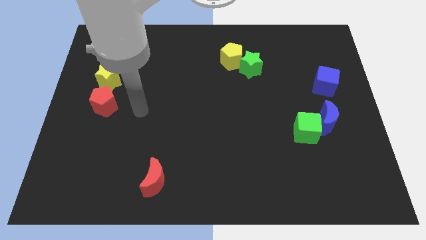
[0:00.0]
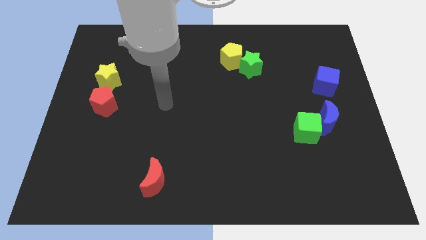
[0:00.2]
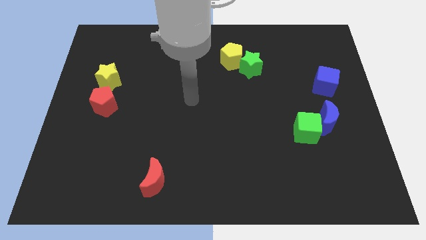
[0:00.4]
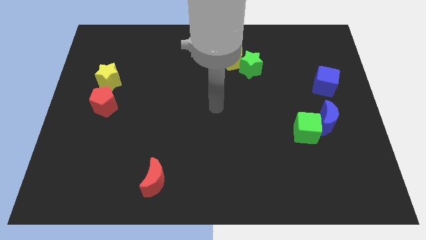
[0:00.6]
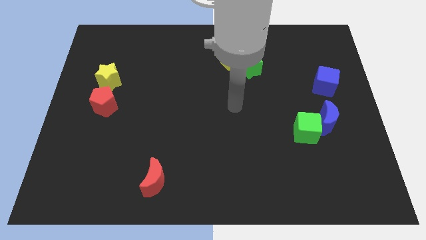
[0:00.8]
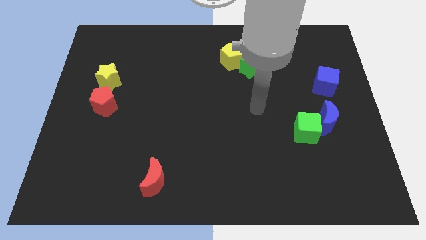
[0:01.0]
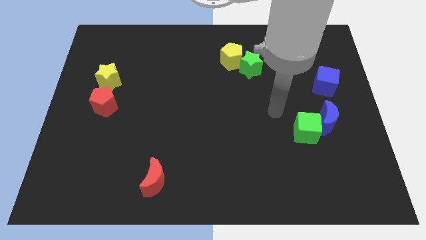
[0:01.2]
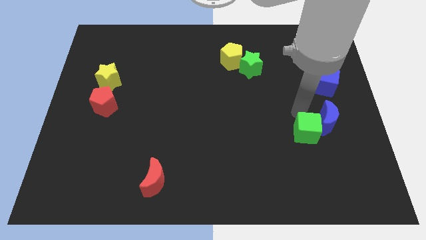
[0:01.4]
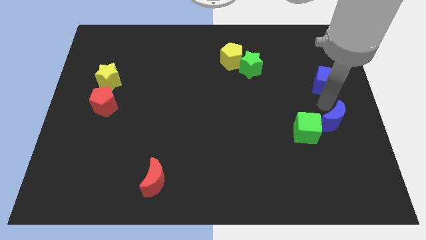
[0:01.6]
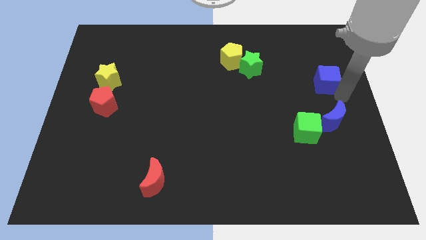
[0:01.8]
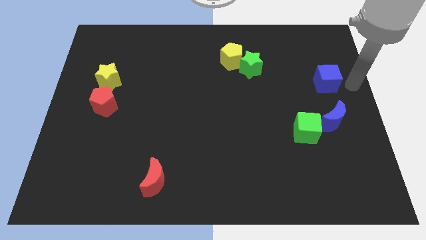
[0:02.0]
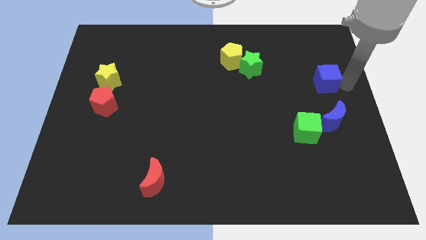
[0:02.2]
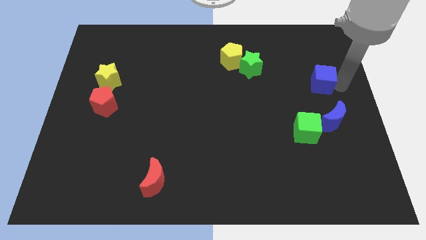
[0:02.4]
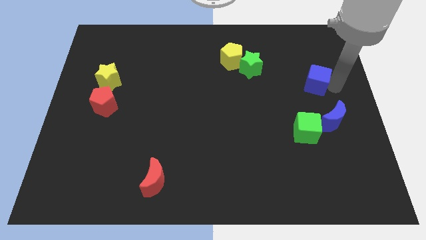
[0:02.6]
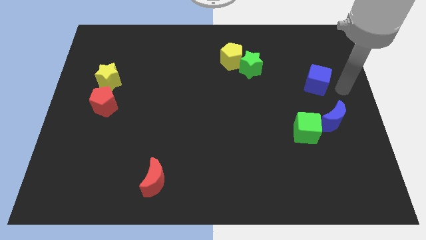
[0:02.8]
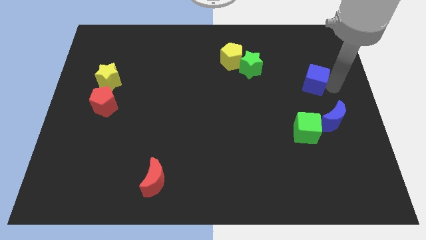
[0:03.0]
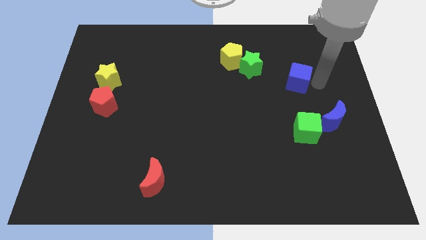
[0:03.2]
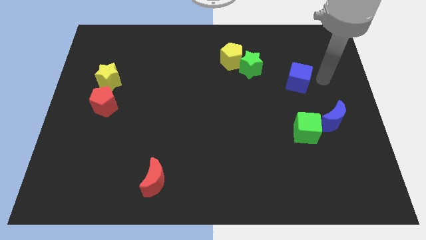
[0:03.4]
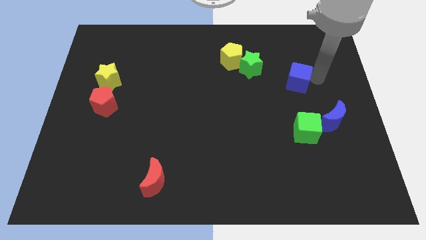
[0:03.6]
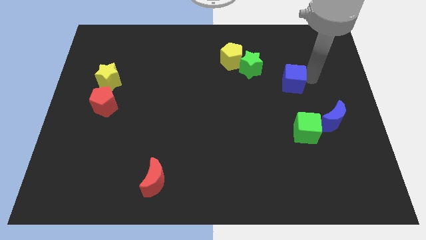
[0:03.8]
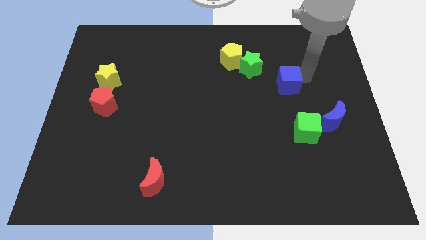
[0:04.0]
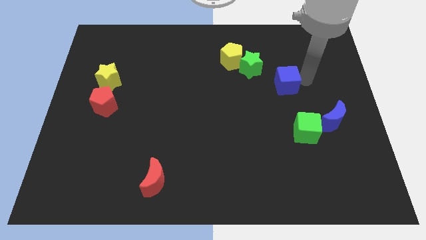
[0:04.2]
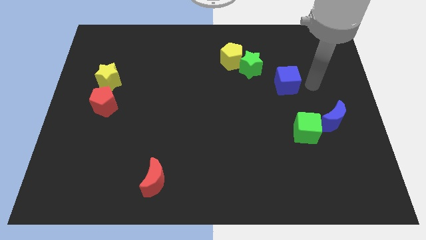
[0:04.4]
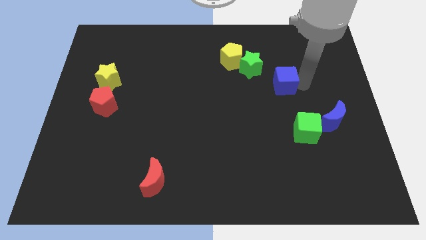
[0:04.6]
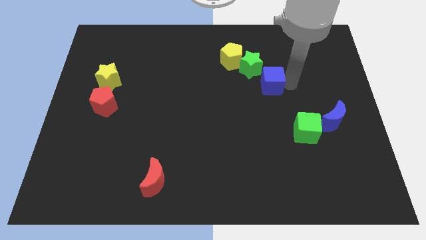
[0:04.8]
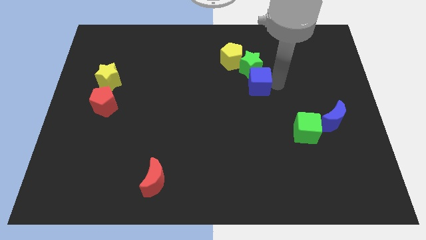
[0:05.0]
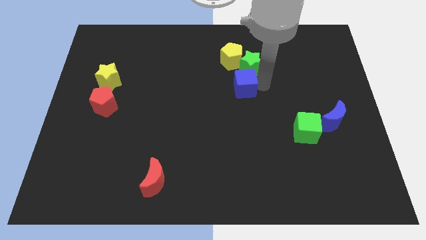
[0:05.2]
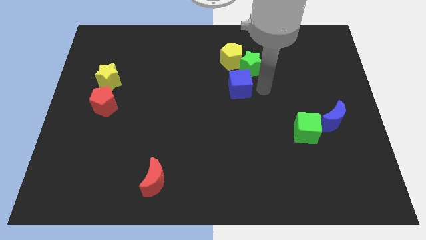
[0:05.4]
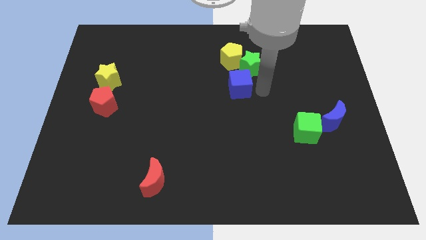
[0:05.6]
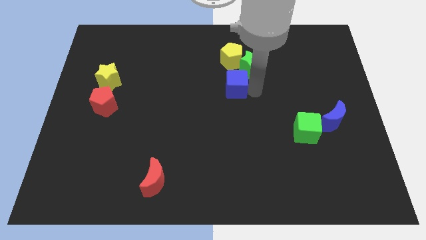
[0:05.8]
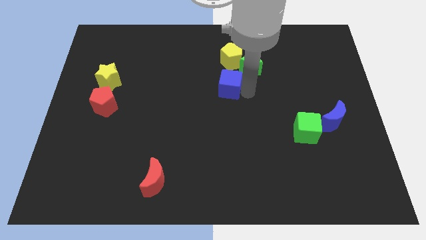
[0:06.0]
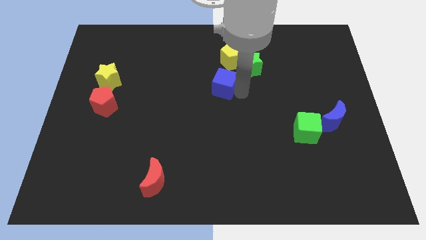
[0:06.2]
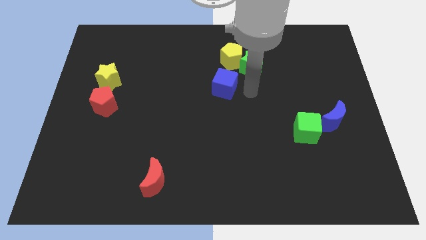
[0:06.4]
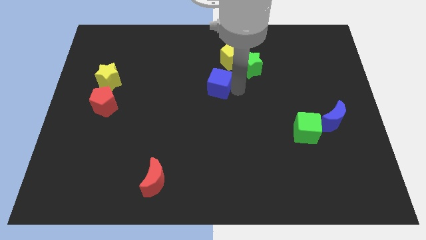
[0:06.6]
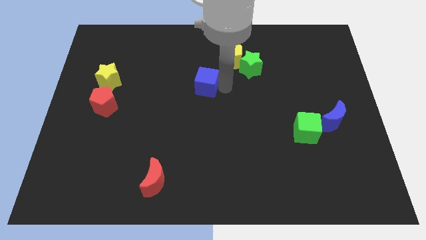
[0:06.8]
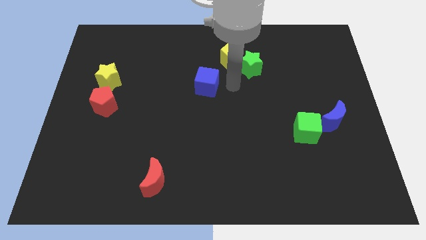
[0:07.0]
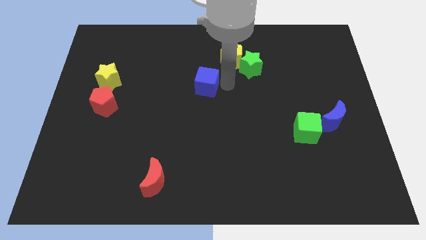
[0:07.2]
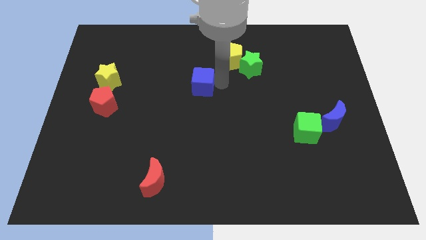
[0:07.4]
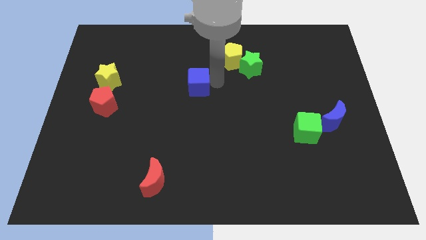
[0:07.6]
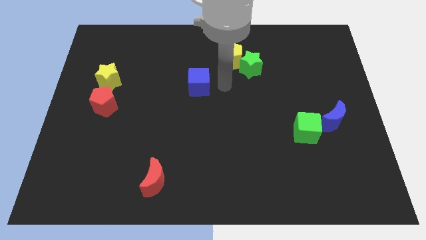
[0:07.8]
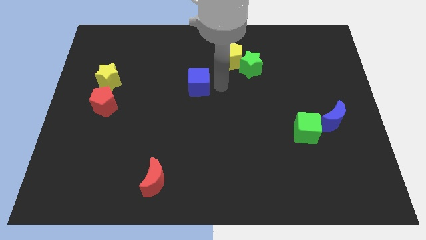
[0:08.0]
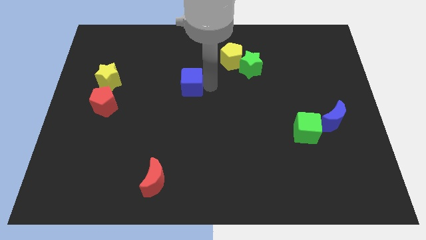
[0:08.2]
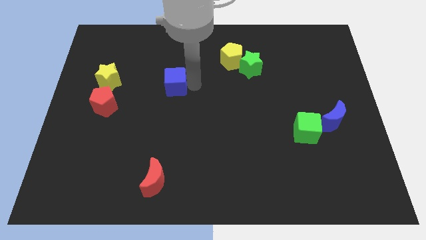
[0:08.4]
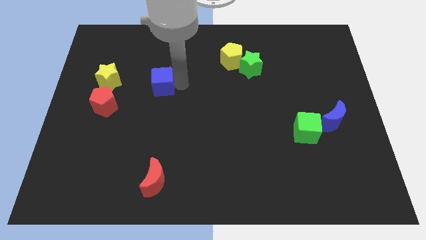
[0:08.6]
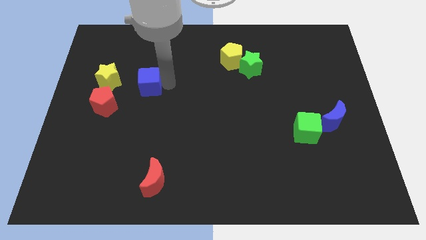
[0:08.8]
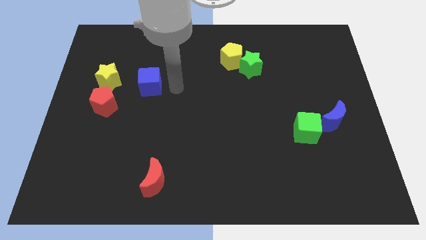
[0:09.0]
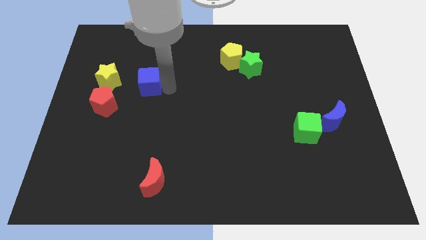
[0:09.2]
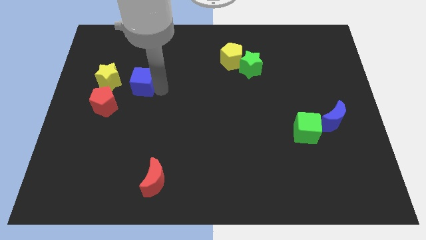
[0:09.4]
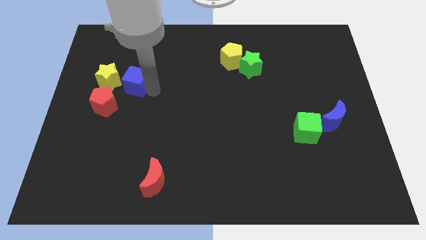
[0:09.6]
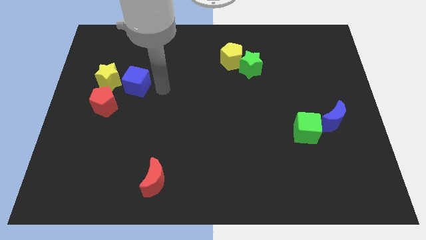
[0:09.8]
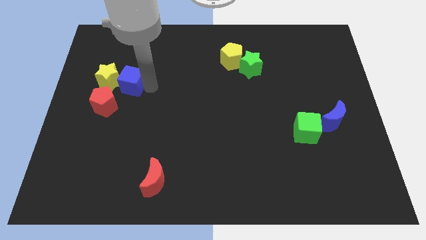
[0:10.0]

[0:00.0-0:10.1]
slide the blue cube towards the yellow star

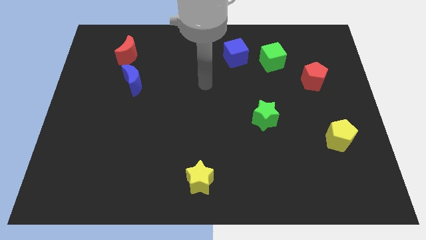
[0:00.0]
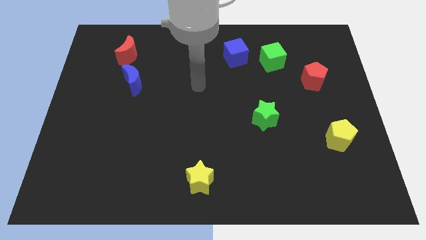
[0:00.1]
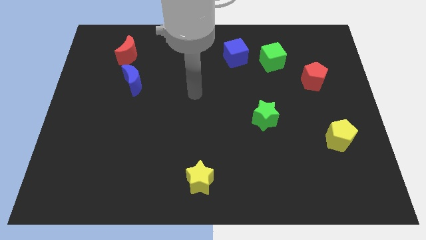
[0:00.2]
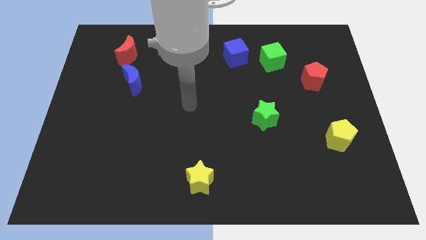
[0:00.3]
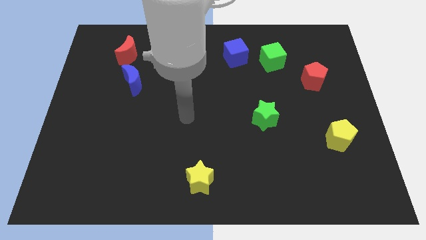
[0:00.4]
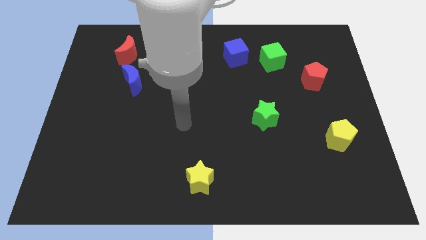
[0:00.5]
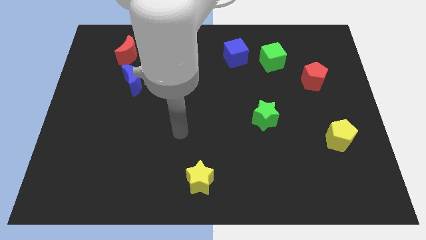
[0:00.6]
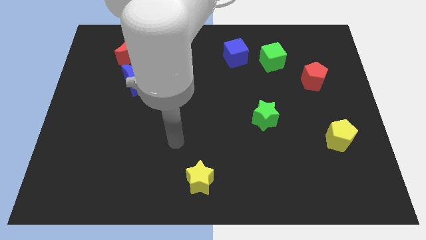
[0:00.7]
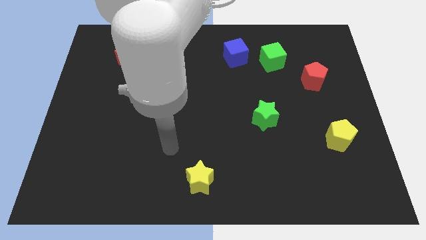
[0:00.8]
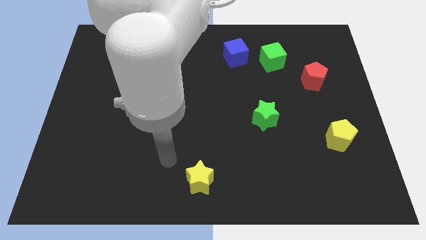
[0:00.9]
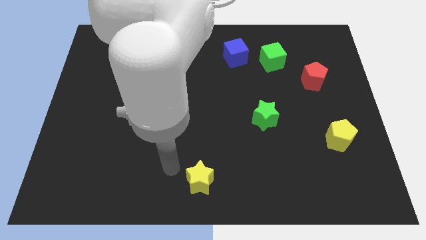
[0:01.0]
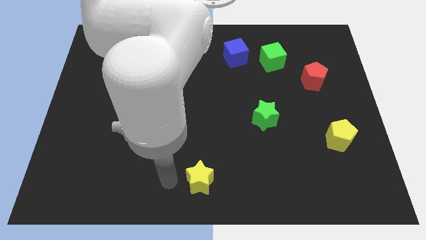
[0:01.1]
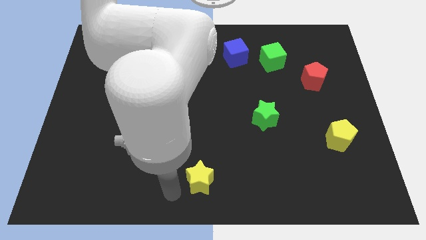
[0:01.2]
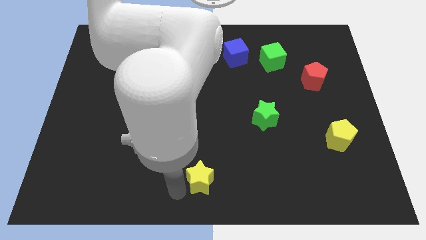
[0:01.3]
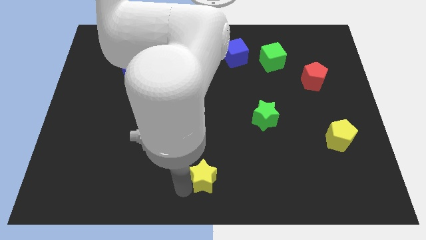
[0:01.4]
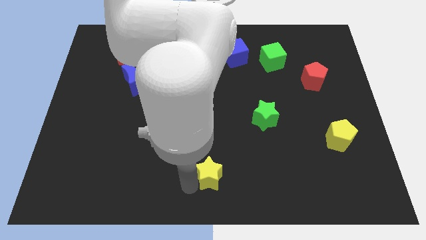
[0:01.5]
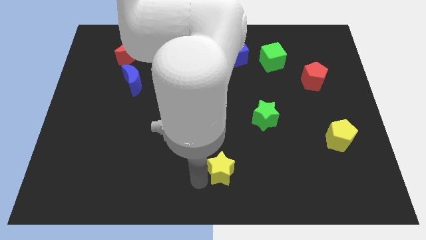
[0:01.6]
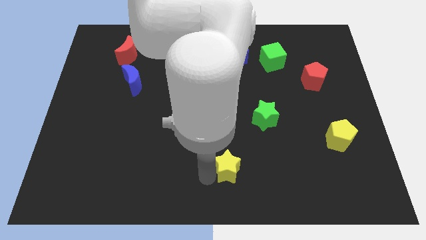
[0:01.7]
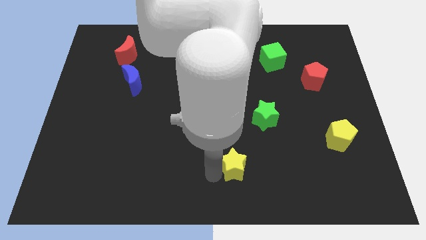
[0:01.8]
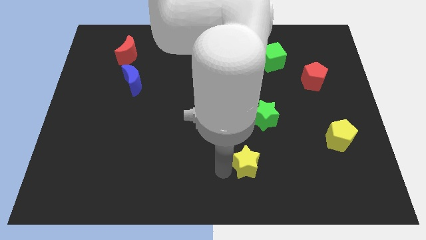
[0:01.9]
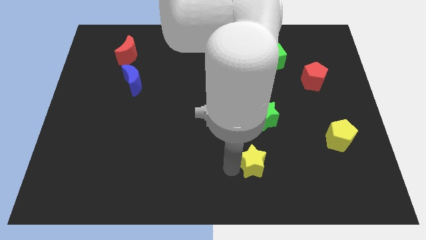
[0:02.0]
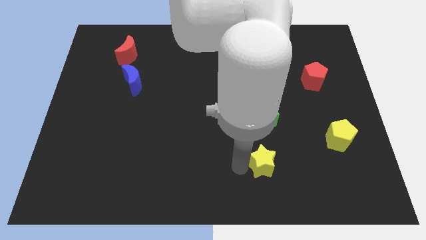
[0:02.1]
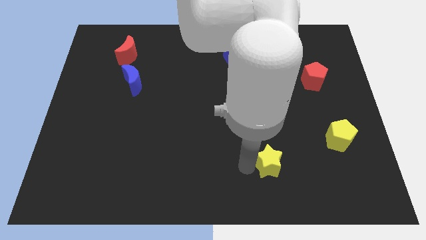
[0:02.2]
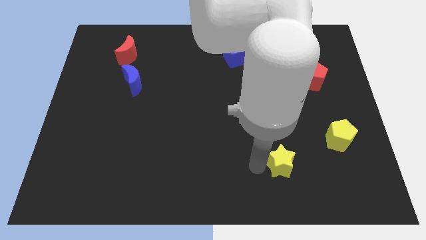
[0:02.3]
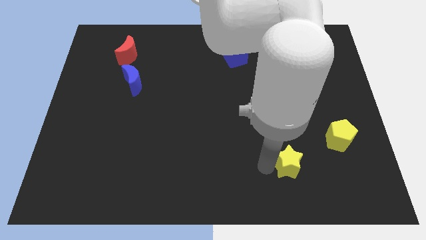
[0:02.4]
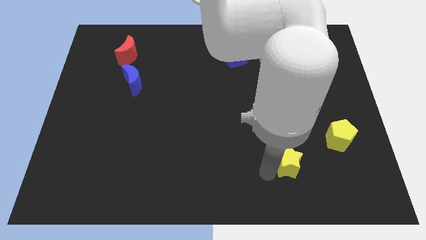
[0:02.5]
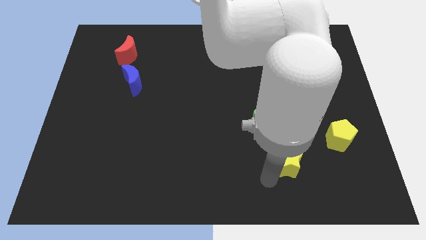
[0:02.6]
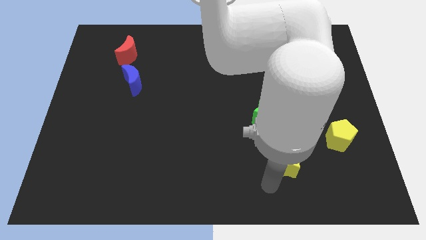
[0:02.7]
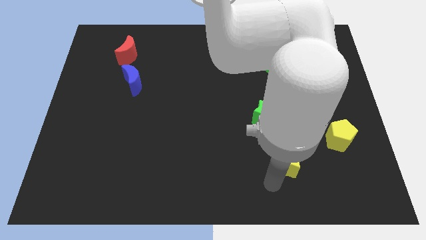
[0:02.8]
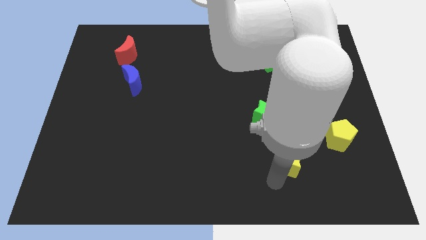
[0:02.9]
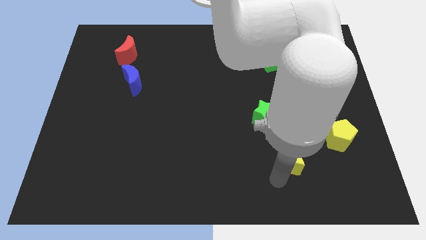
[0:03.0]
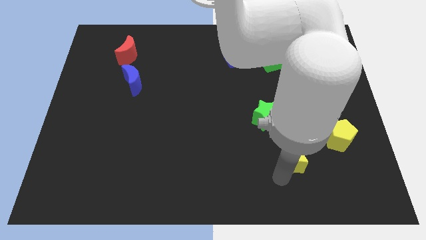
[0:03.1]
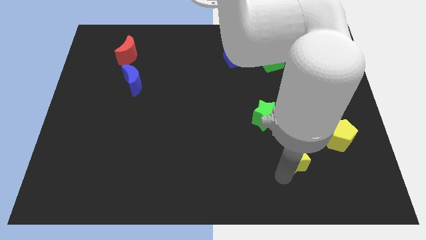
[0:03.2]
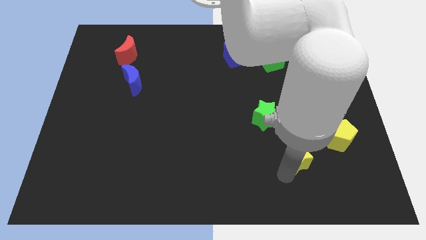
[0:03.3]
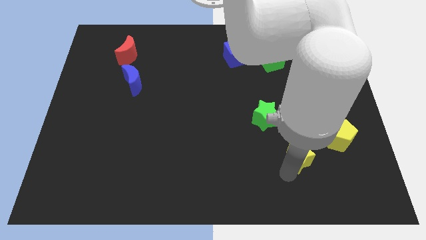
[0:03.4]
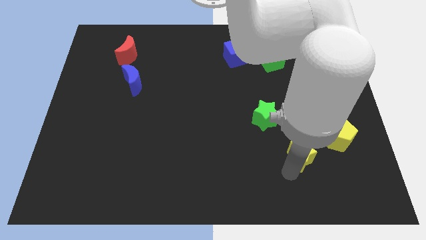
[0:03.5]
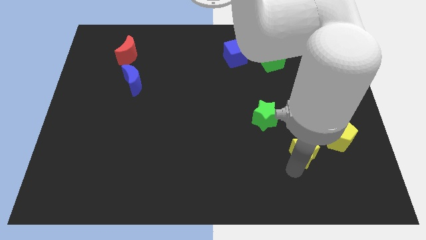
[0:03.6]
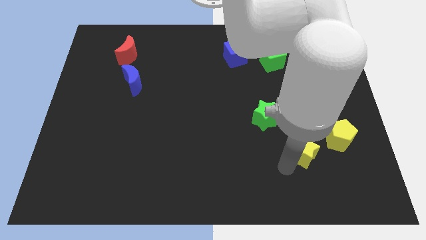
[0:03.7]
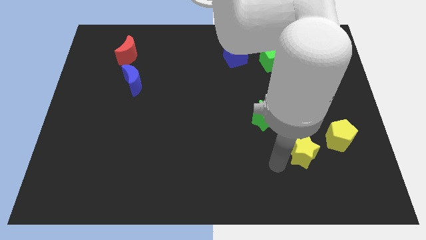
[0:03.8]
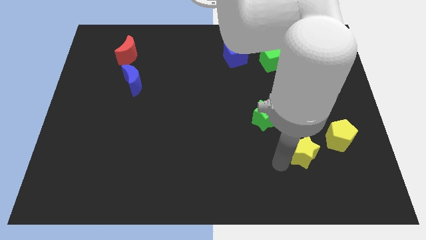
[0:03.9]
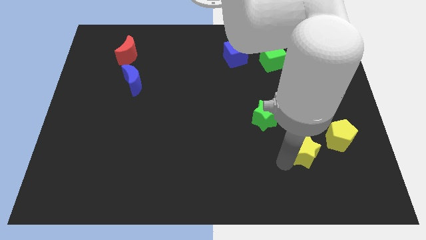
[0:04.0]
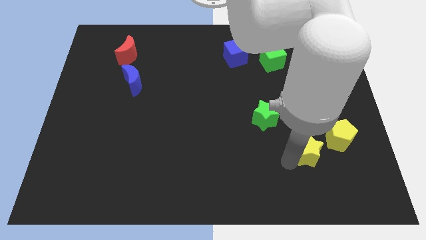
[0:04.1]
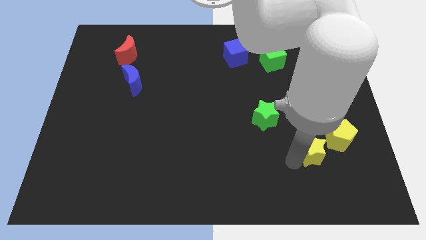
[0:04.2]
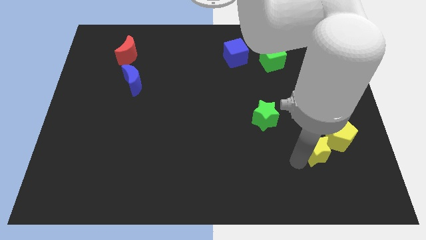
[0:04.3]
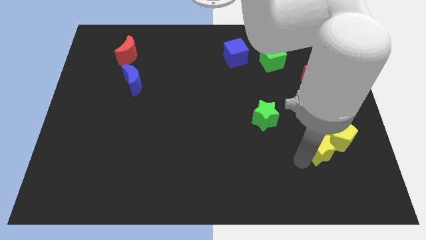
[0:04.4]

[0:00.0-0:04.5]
slide the yellow star close to the yellow pentagon
